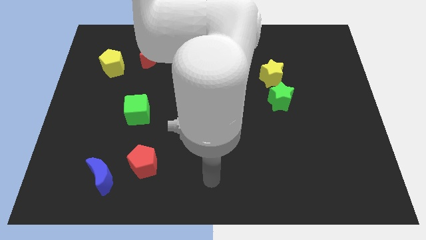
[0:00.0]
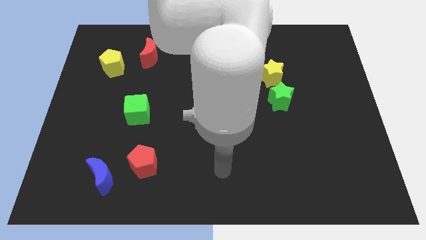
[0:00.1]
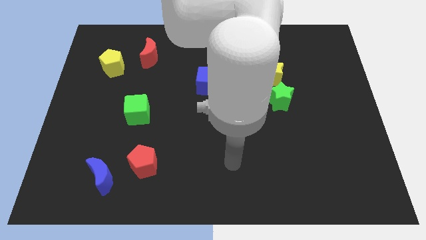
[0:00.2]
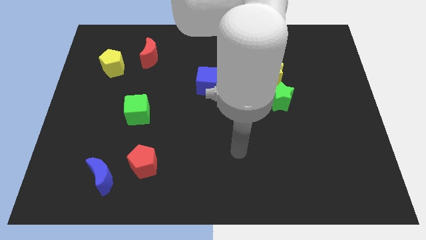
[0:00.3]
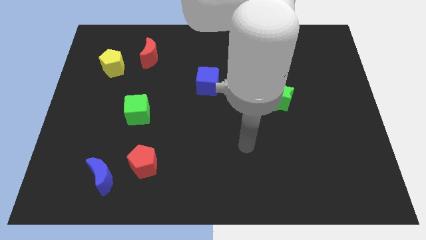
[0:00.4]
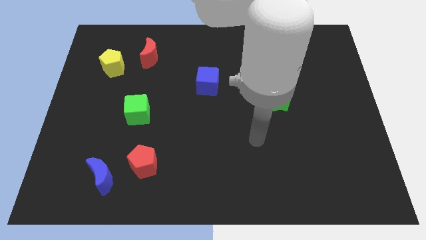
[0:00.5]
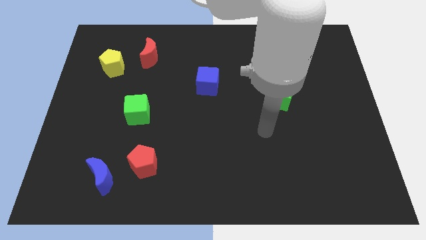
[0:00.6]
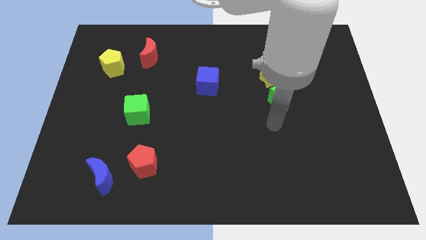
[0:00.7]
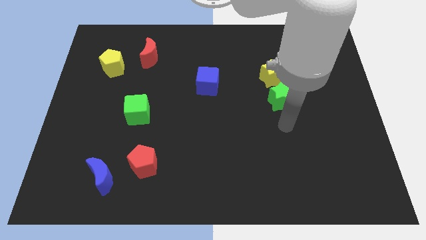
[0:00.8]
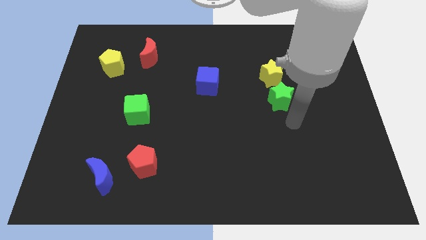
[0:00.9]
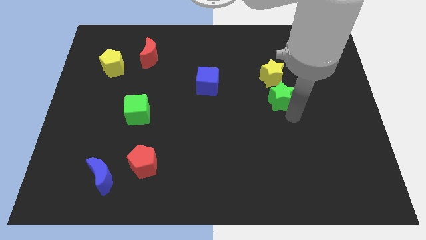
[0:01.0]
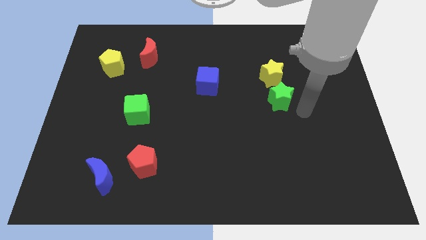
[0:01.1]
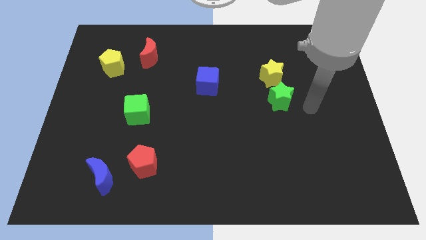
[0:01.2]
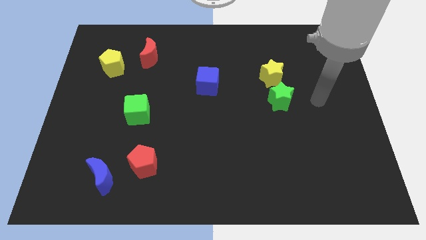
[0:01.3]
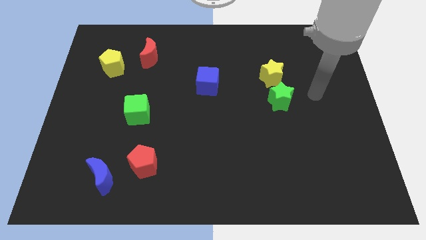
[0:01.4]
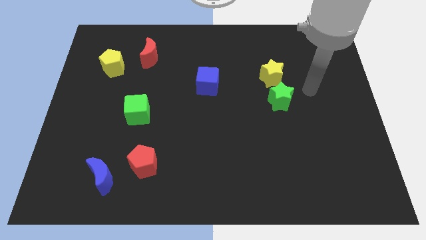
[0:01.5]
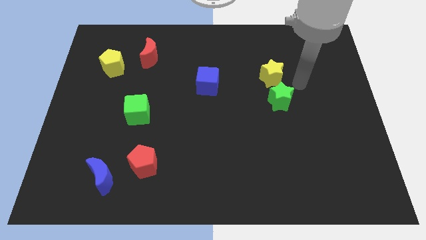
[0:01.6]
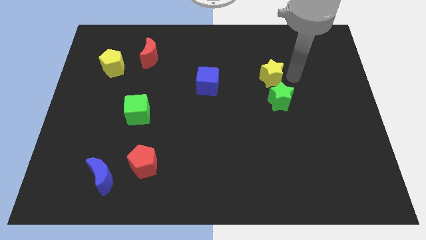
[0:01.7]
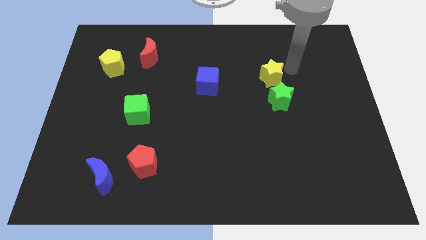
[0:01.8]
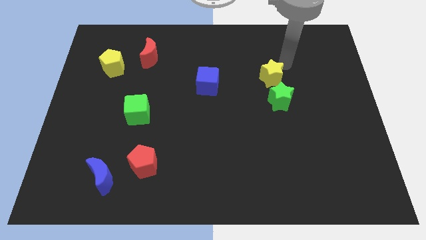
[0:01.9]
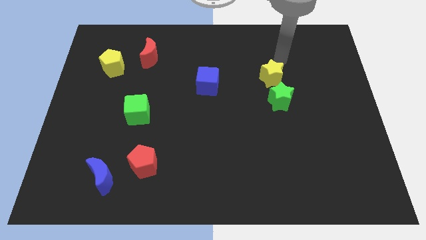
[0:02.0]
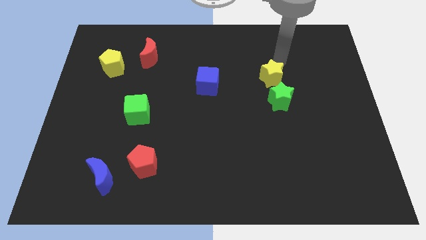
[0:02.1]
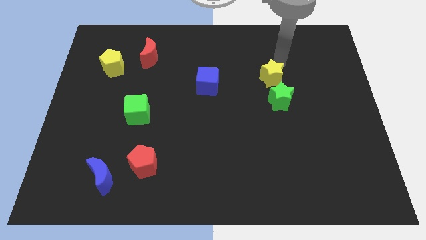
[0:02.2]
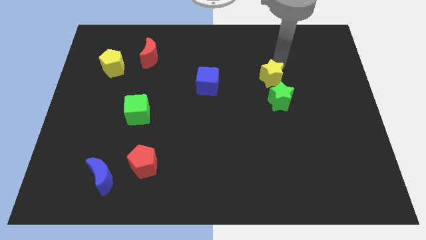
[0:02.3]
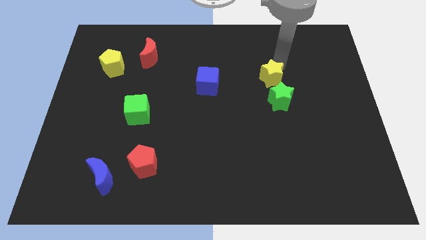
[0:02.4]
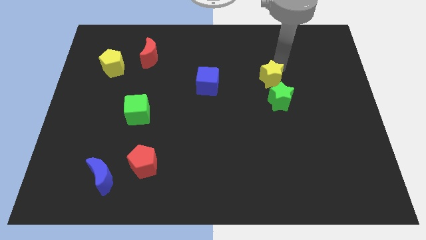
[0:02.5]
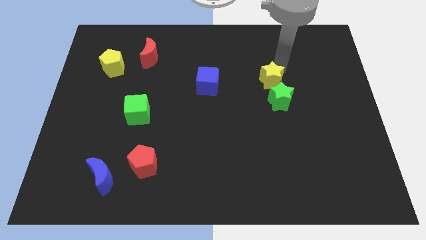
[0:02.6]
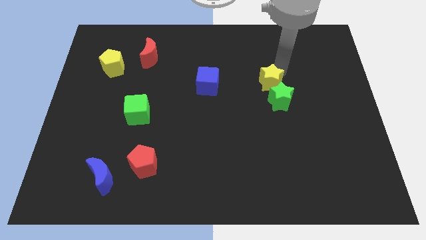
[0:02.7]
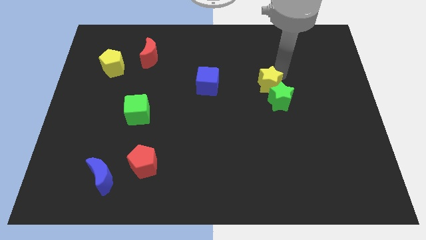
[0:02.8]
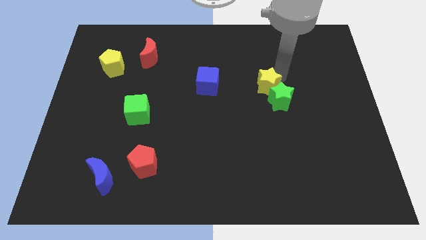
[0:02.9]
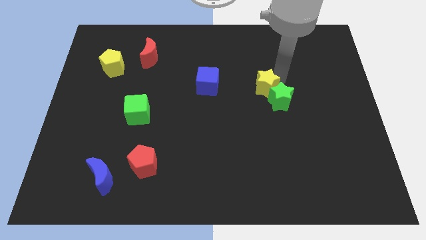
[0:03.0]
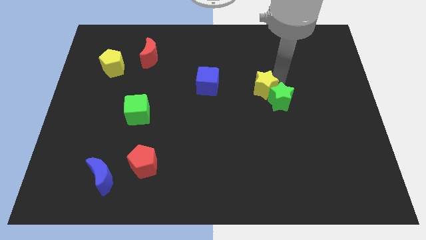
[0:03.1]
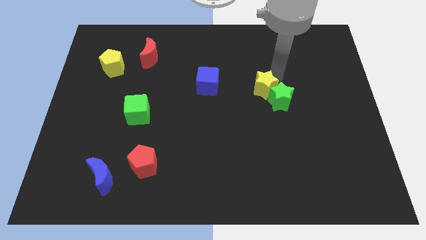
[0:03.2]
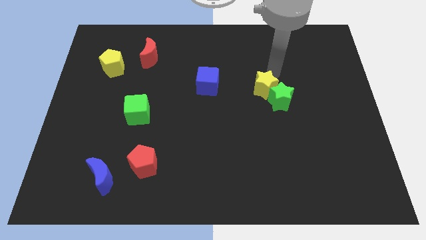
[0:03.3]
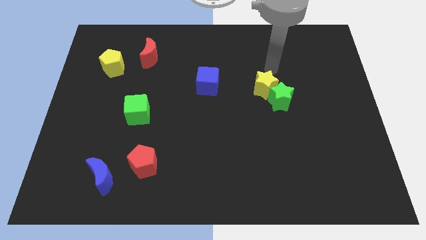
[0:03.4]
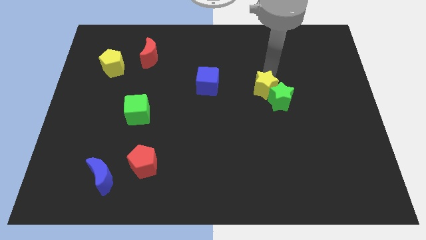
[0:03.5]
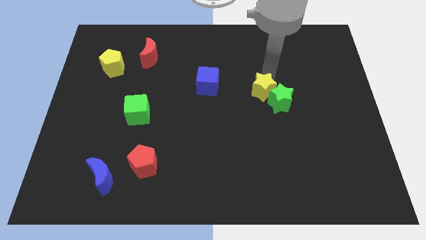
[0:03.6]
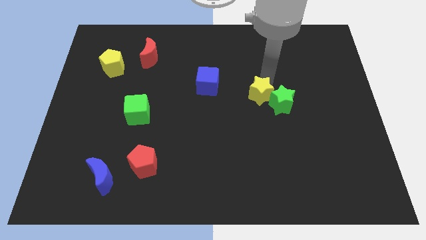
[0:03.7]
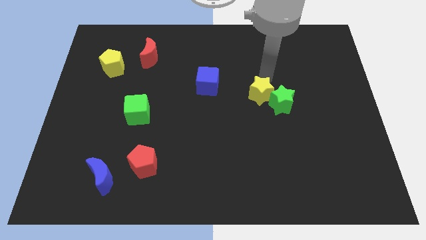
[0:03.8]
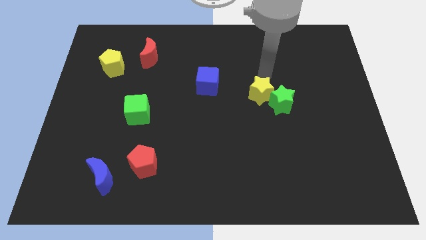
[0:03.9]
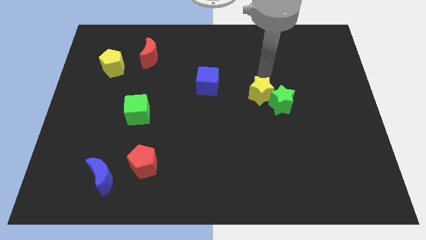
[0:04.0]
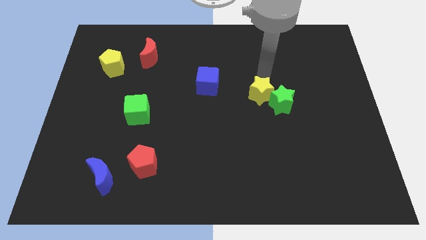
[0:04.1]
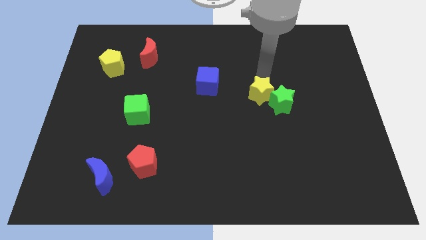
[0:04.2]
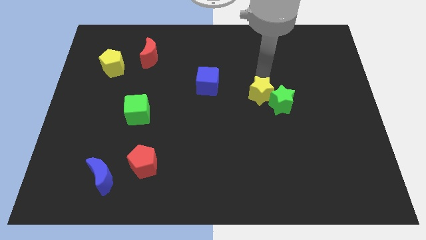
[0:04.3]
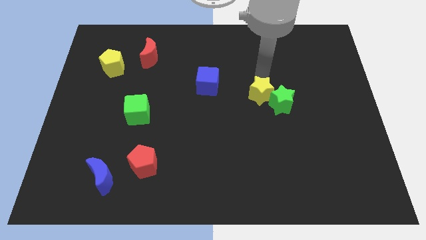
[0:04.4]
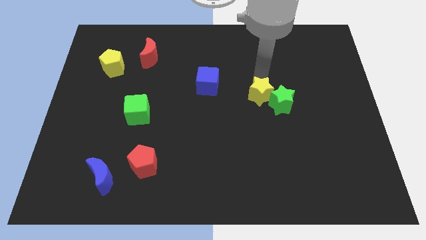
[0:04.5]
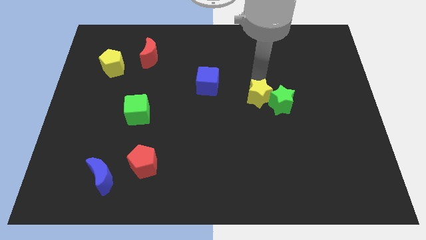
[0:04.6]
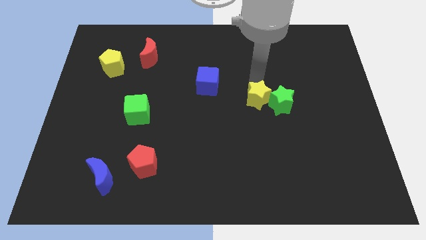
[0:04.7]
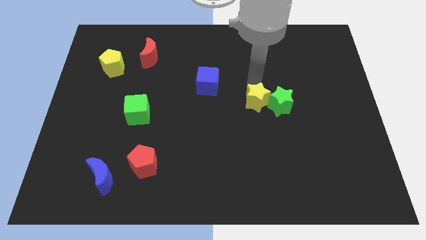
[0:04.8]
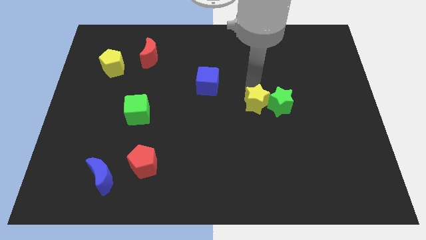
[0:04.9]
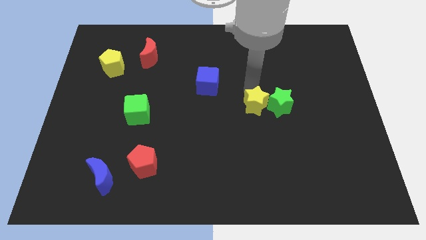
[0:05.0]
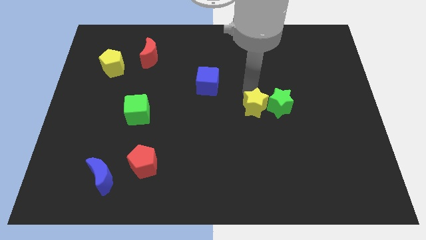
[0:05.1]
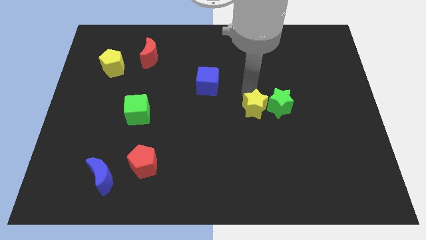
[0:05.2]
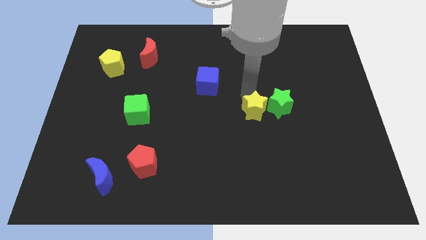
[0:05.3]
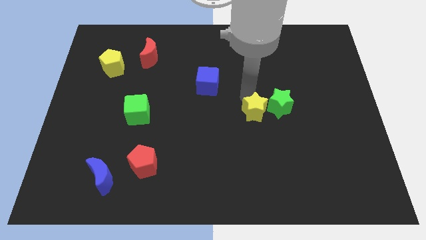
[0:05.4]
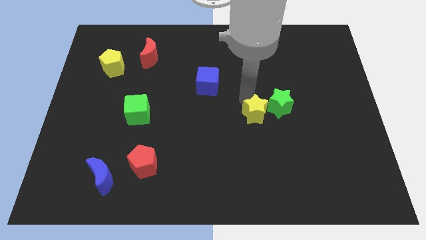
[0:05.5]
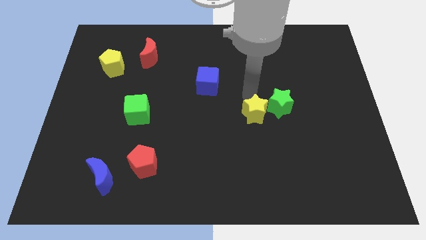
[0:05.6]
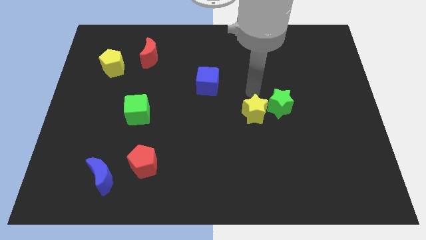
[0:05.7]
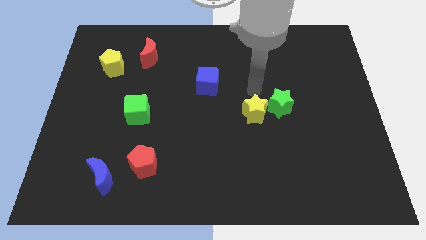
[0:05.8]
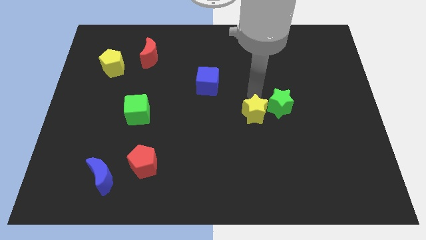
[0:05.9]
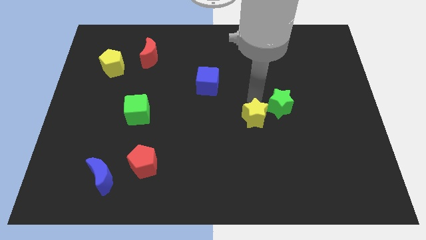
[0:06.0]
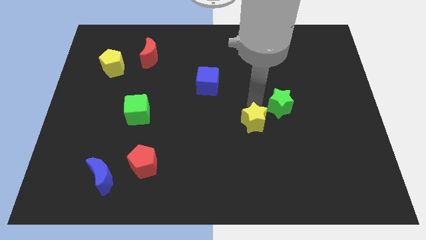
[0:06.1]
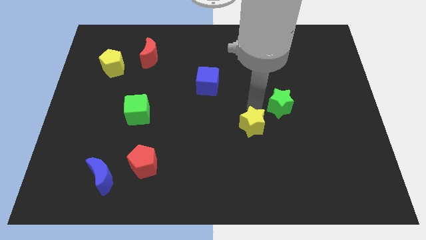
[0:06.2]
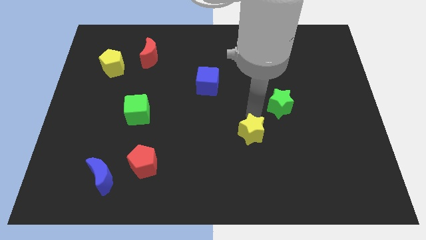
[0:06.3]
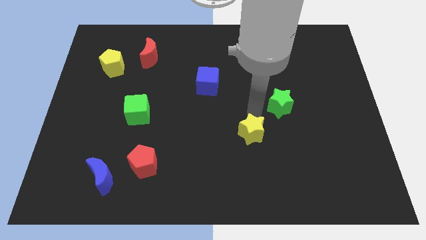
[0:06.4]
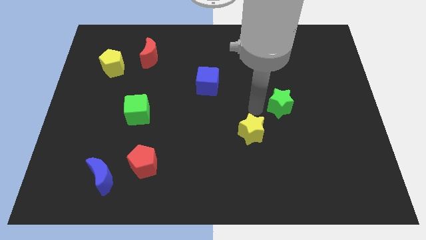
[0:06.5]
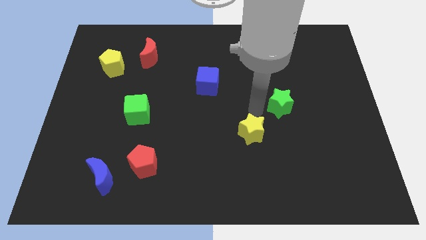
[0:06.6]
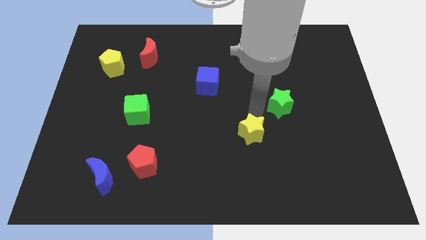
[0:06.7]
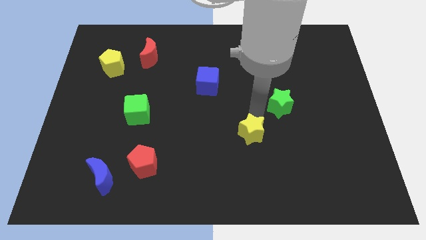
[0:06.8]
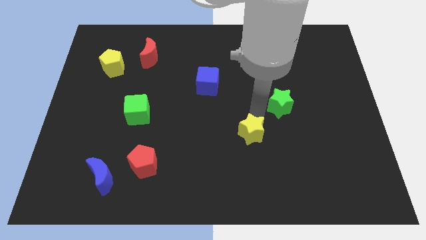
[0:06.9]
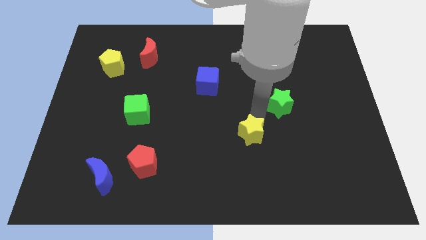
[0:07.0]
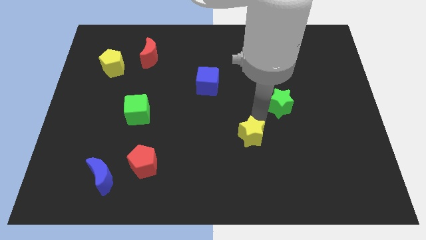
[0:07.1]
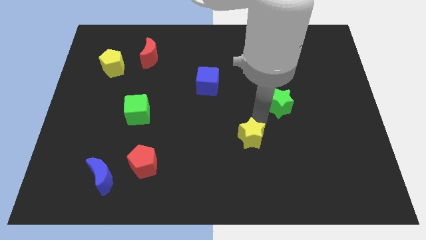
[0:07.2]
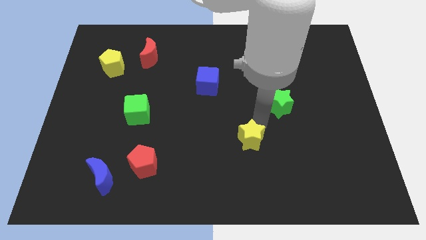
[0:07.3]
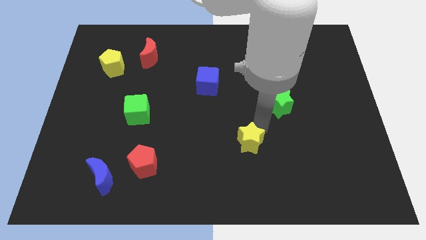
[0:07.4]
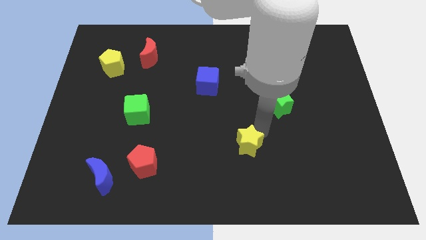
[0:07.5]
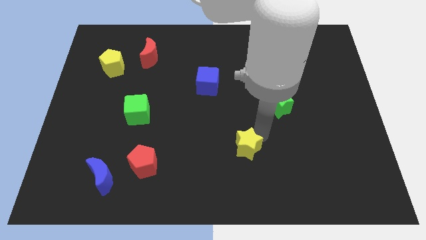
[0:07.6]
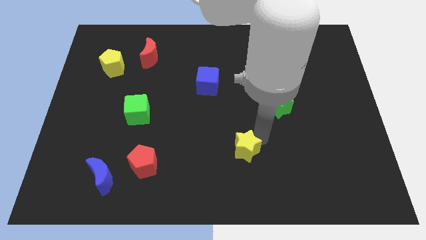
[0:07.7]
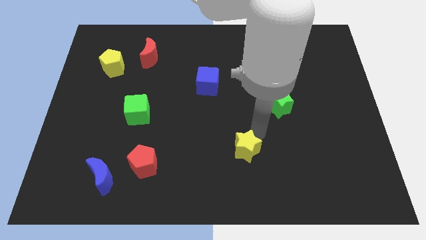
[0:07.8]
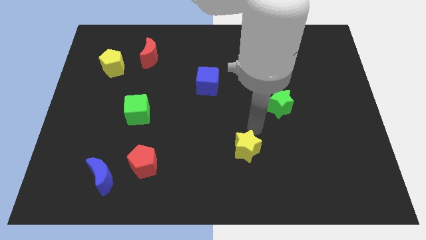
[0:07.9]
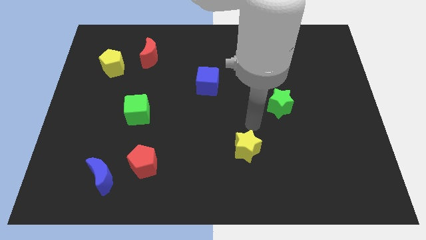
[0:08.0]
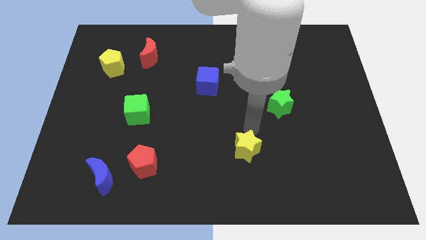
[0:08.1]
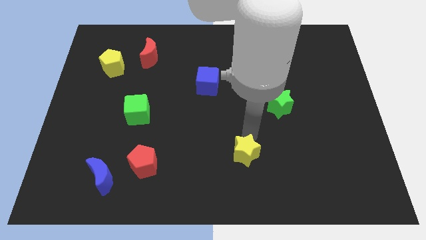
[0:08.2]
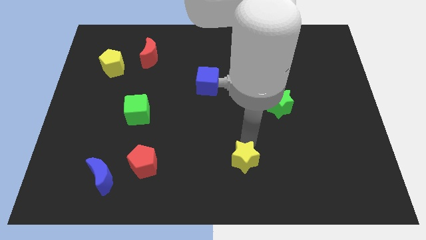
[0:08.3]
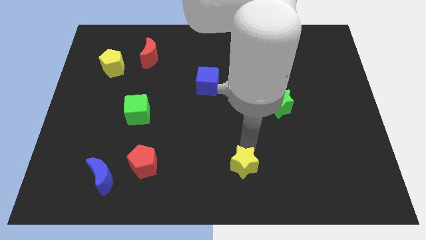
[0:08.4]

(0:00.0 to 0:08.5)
put the yellow star to the bottom side
